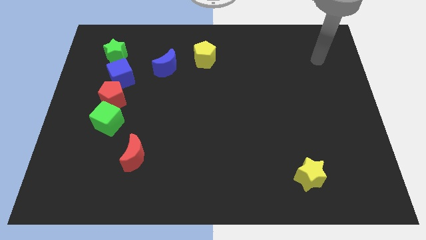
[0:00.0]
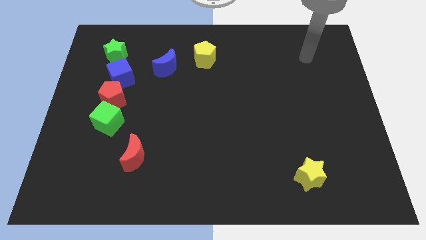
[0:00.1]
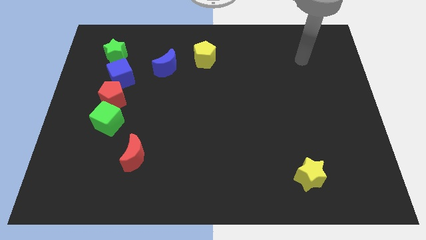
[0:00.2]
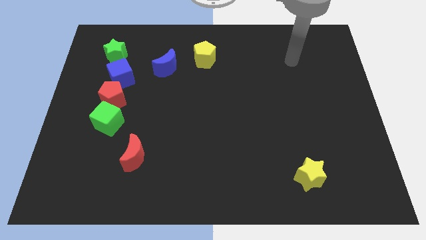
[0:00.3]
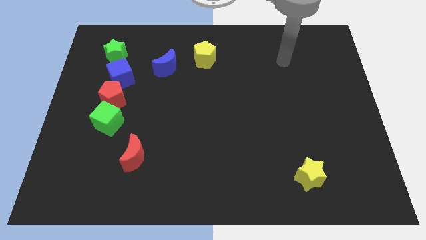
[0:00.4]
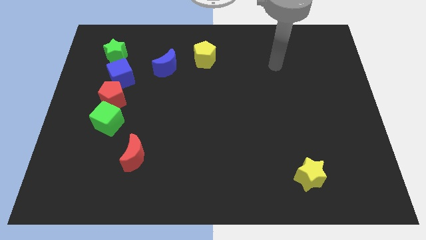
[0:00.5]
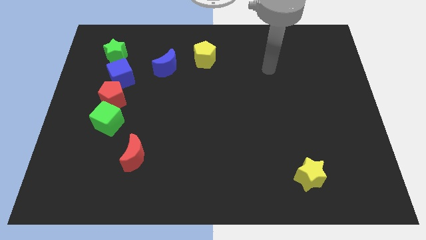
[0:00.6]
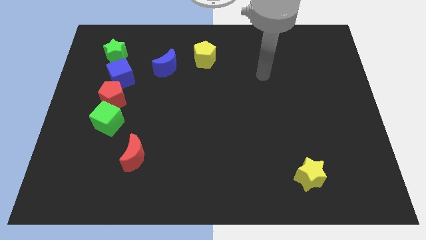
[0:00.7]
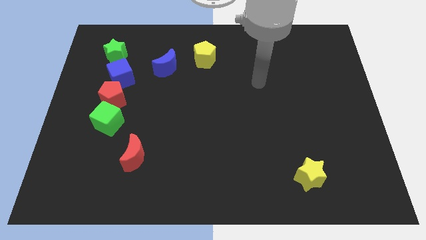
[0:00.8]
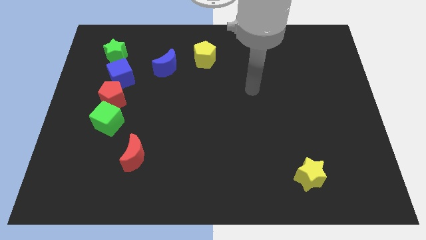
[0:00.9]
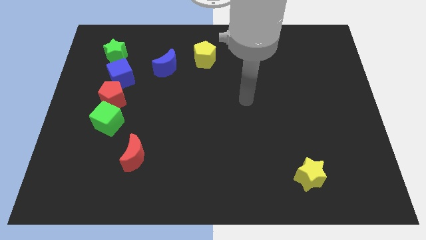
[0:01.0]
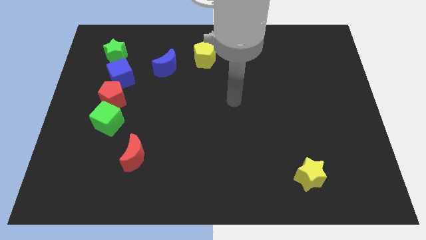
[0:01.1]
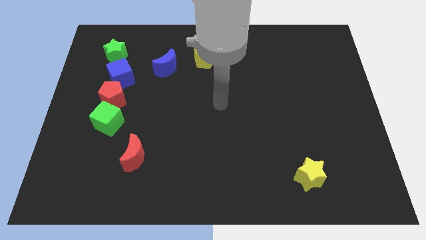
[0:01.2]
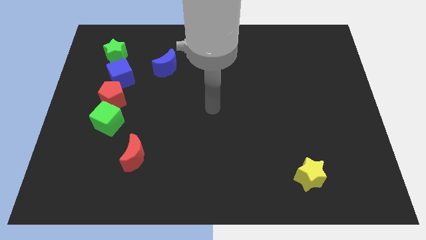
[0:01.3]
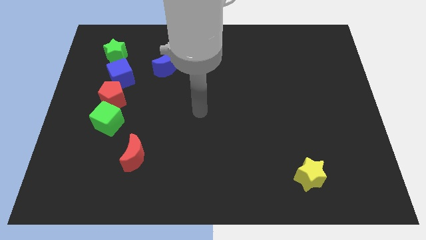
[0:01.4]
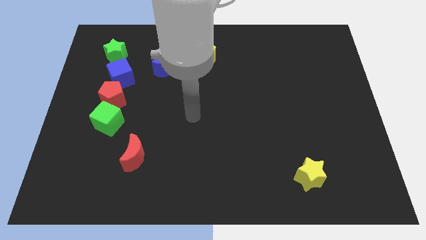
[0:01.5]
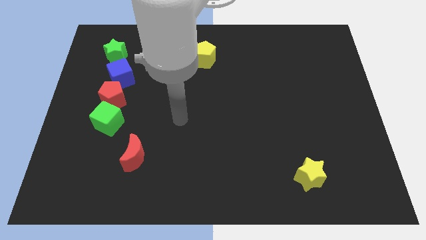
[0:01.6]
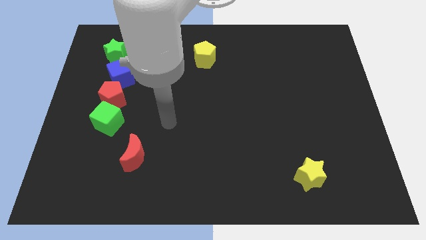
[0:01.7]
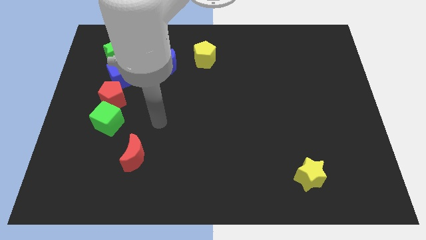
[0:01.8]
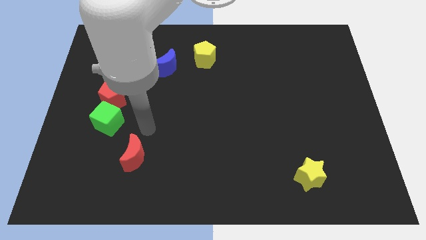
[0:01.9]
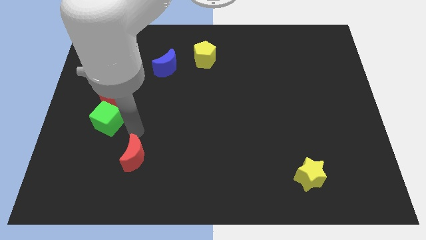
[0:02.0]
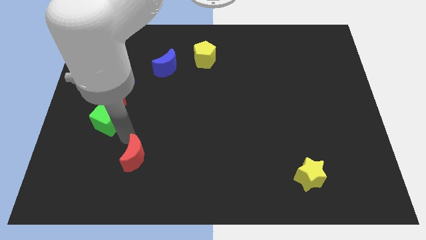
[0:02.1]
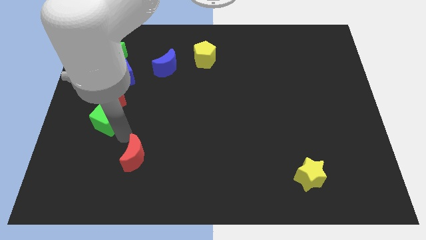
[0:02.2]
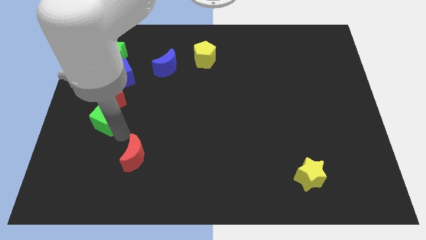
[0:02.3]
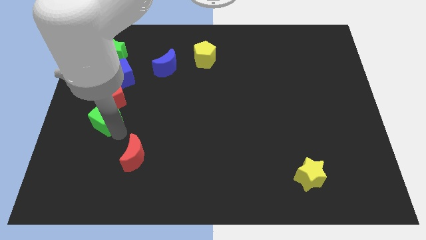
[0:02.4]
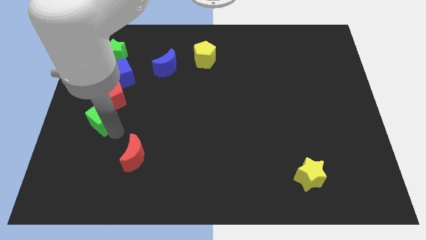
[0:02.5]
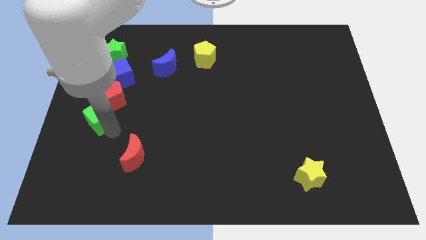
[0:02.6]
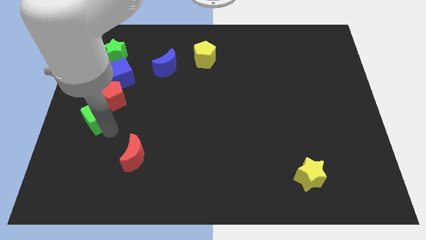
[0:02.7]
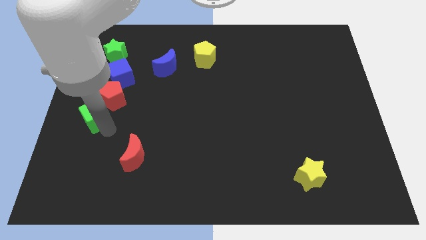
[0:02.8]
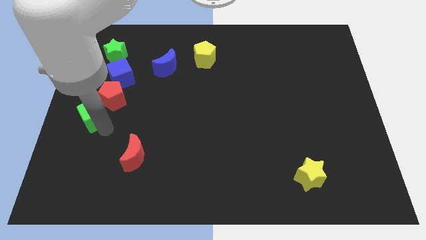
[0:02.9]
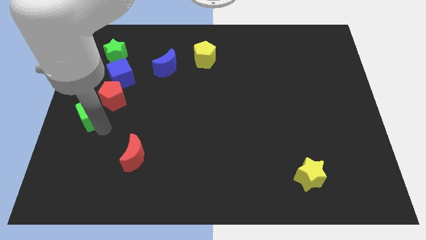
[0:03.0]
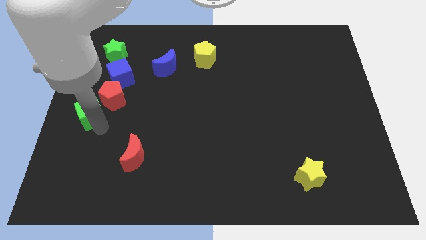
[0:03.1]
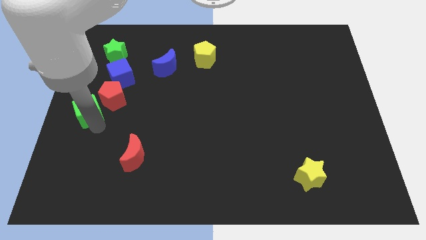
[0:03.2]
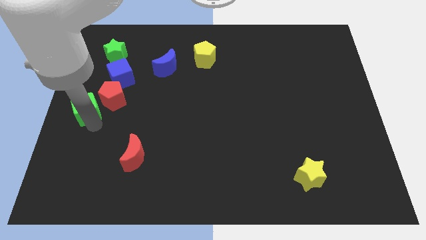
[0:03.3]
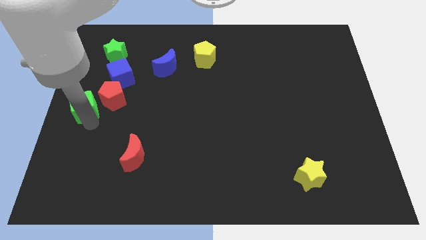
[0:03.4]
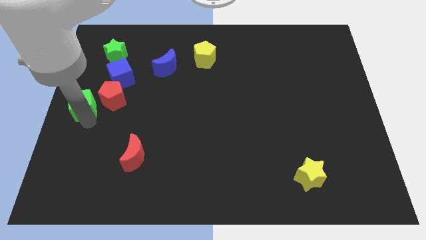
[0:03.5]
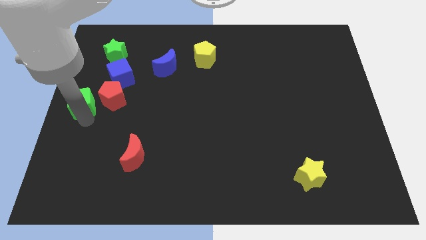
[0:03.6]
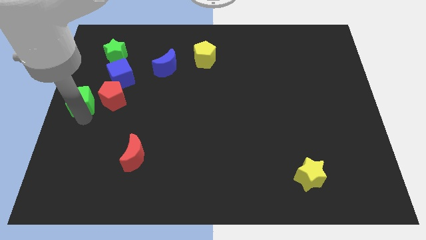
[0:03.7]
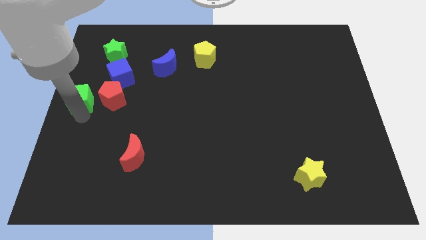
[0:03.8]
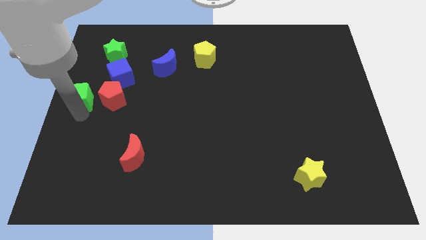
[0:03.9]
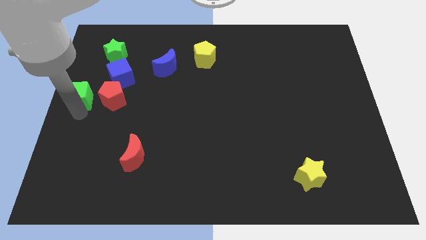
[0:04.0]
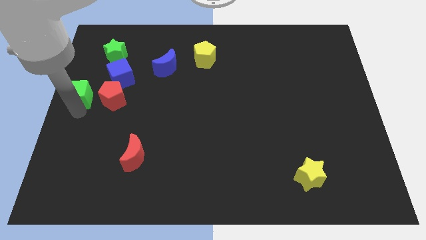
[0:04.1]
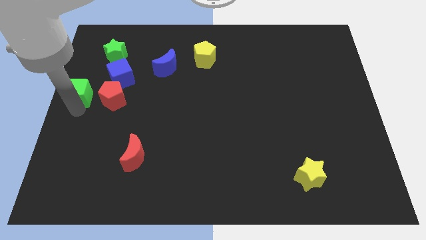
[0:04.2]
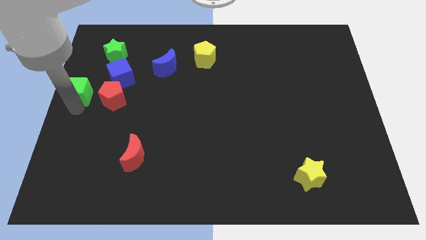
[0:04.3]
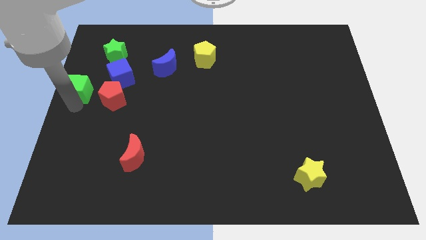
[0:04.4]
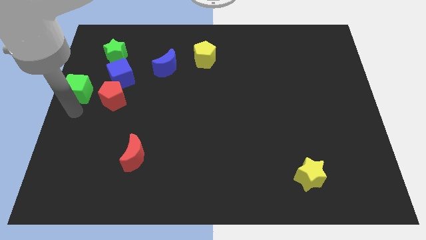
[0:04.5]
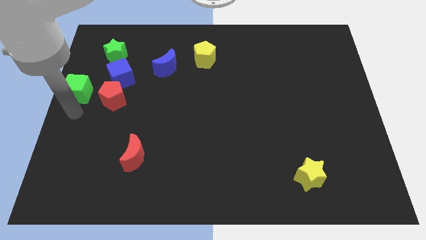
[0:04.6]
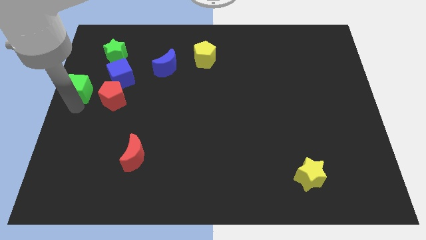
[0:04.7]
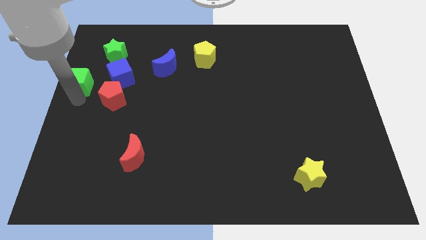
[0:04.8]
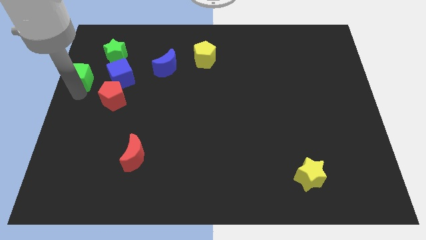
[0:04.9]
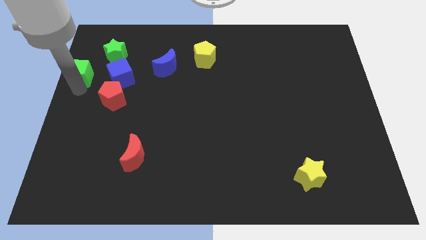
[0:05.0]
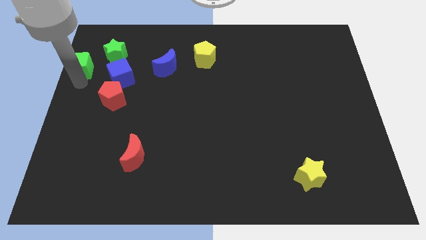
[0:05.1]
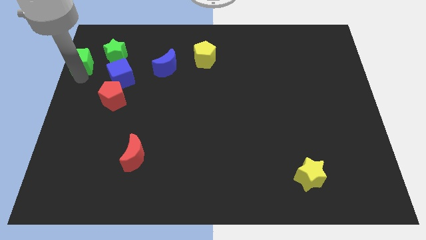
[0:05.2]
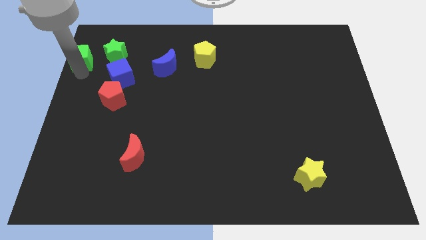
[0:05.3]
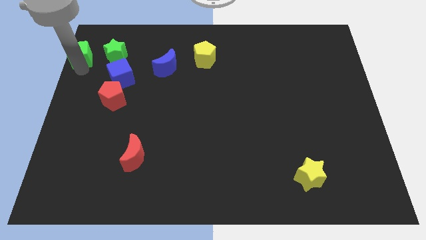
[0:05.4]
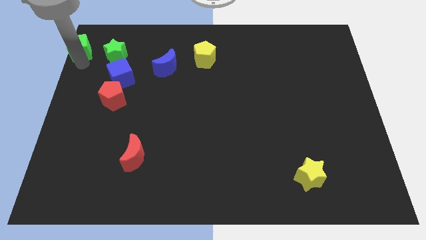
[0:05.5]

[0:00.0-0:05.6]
push the green cube to the top left of the board
